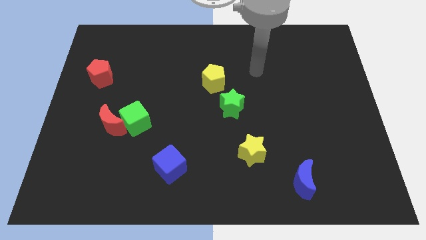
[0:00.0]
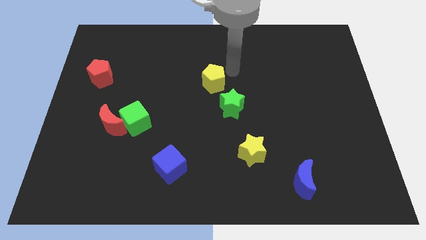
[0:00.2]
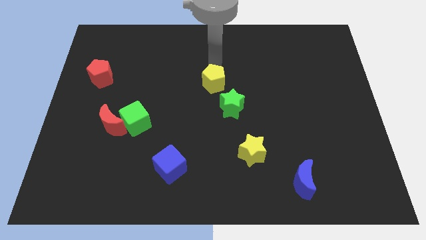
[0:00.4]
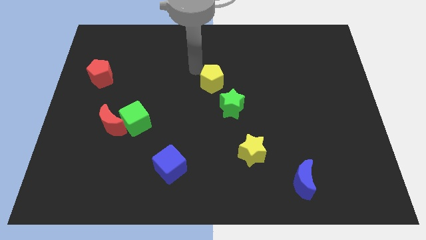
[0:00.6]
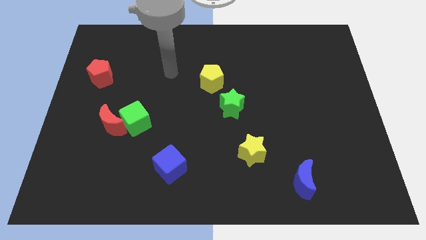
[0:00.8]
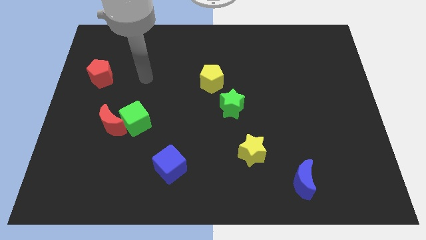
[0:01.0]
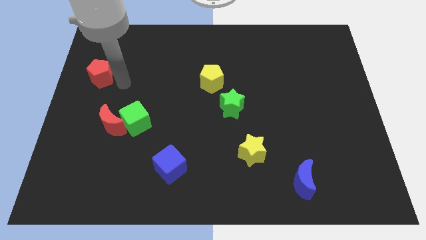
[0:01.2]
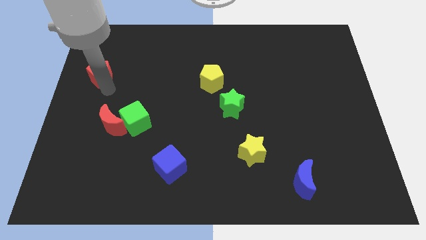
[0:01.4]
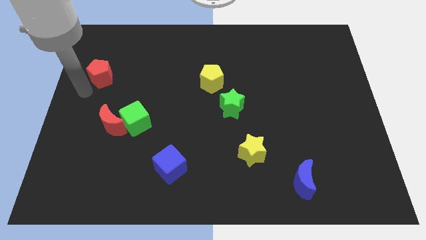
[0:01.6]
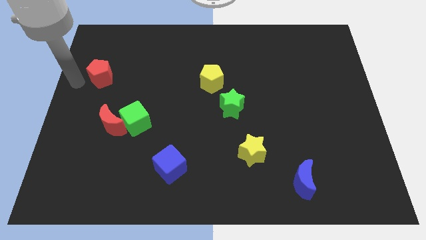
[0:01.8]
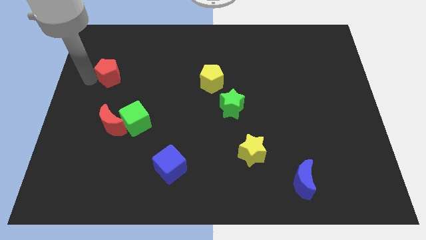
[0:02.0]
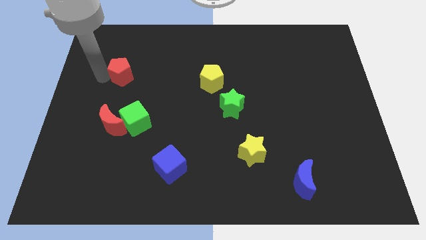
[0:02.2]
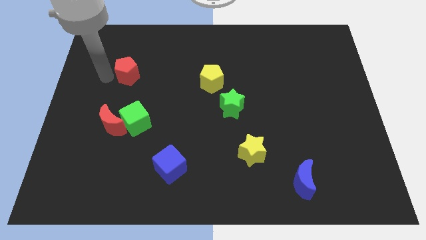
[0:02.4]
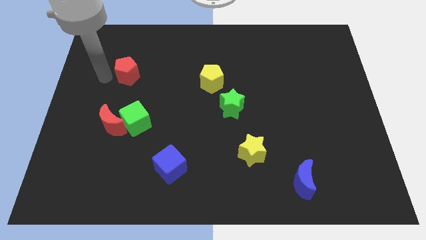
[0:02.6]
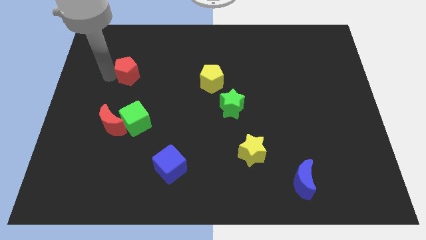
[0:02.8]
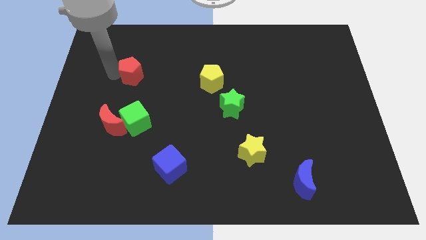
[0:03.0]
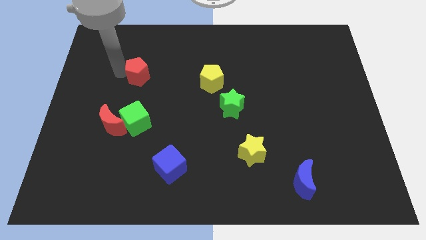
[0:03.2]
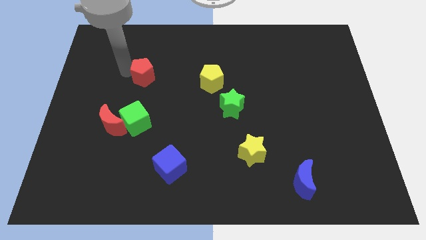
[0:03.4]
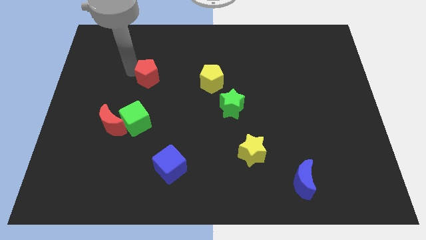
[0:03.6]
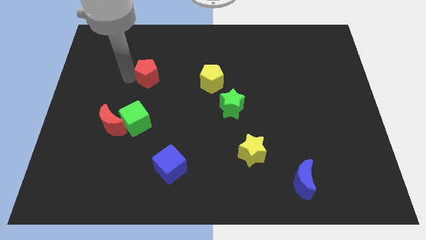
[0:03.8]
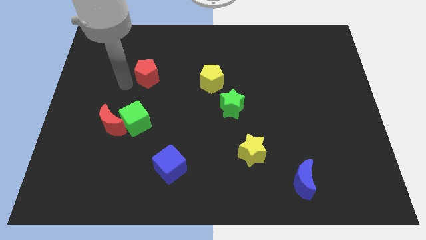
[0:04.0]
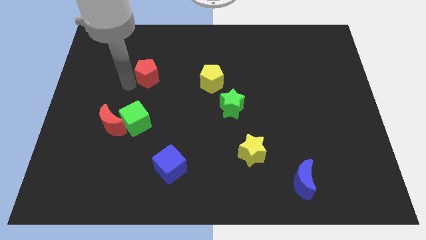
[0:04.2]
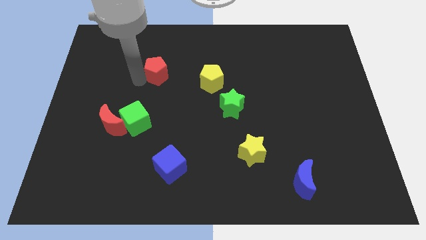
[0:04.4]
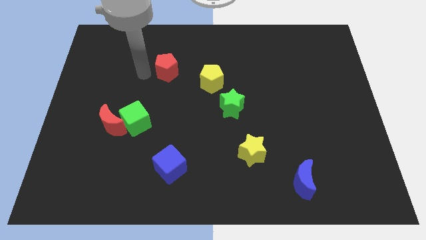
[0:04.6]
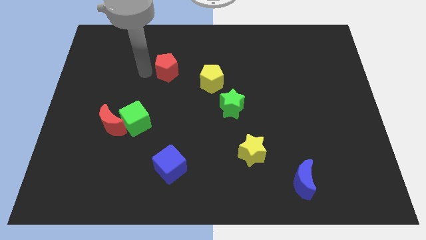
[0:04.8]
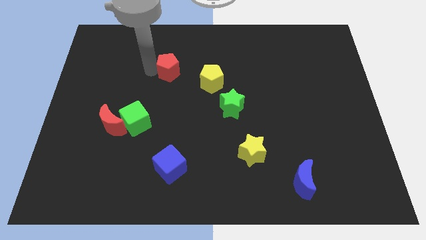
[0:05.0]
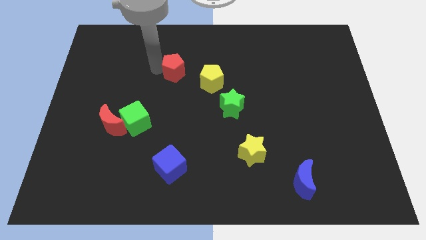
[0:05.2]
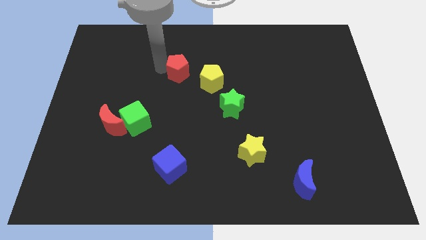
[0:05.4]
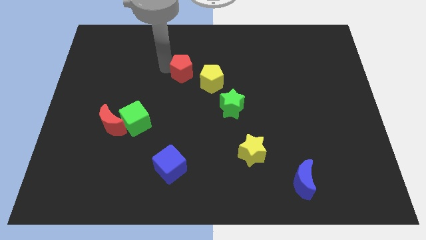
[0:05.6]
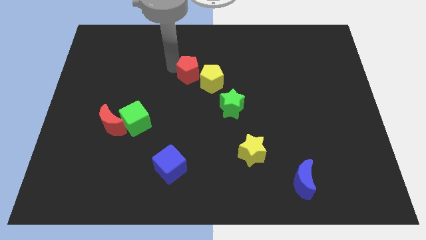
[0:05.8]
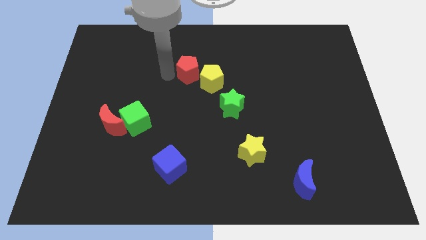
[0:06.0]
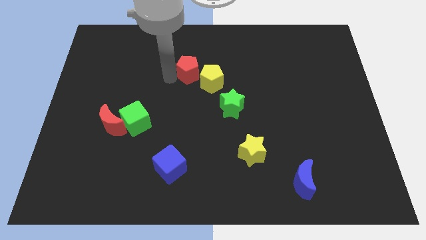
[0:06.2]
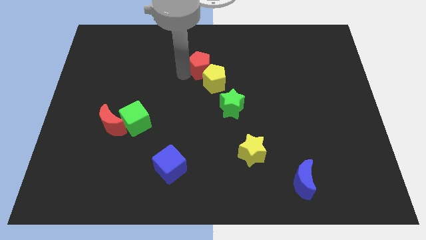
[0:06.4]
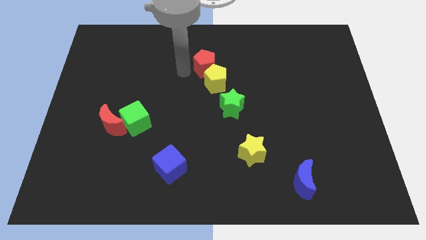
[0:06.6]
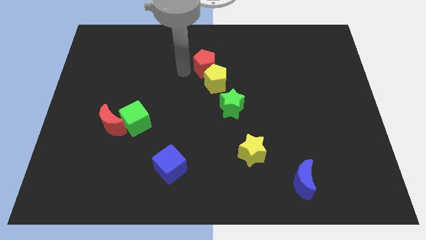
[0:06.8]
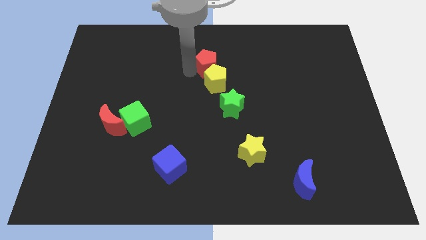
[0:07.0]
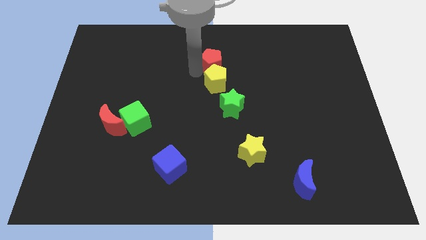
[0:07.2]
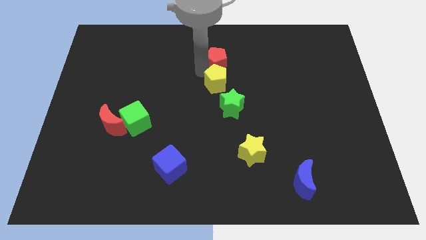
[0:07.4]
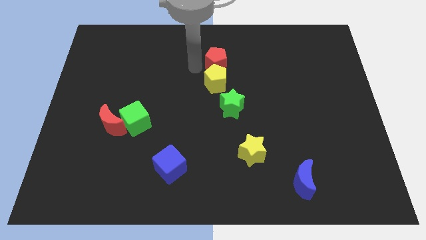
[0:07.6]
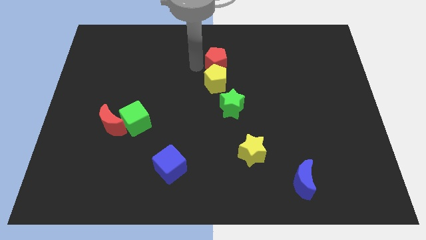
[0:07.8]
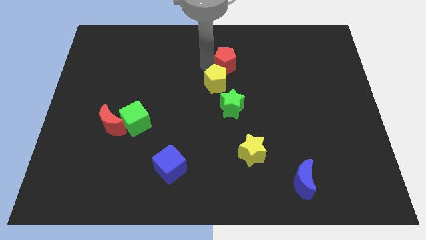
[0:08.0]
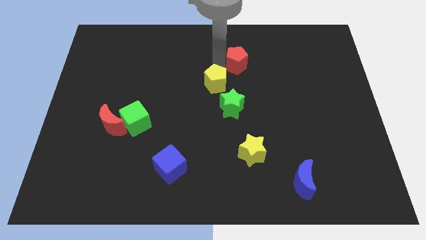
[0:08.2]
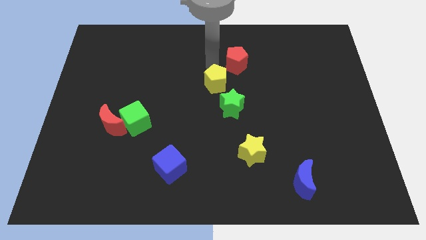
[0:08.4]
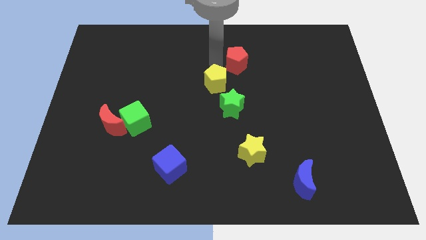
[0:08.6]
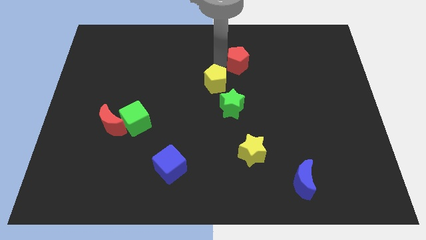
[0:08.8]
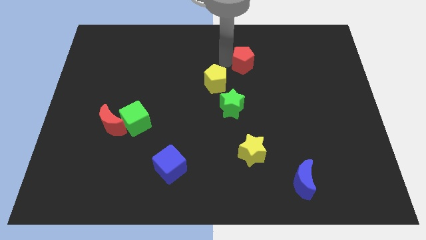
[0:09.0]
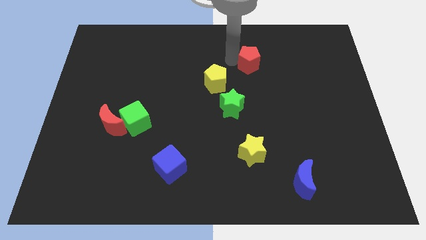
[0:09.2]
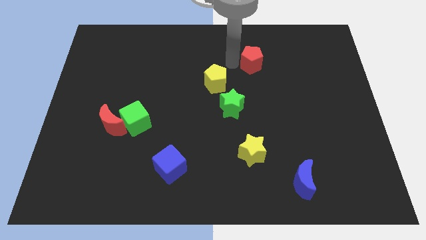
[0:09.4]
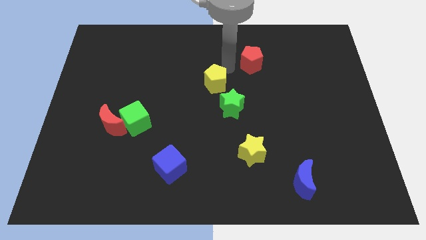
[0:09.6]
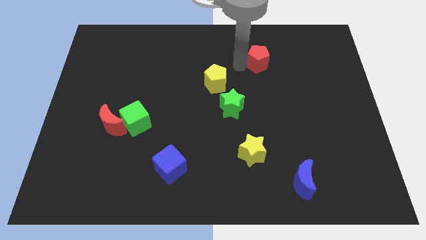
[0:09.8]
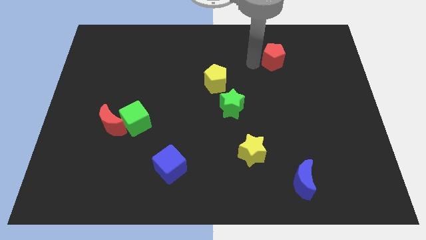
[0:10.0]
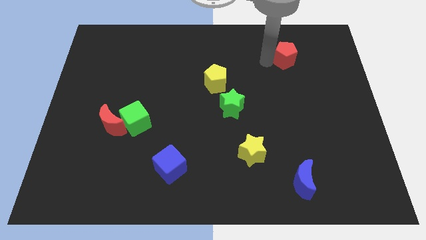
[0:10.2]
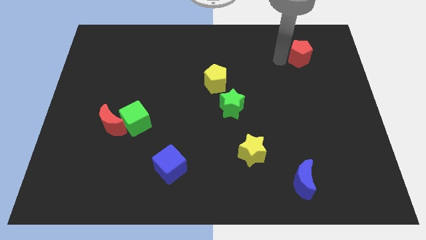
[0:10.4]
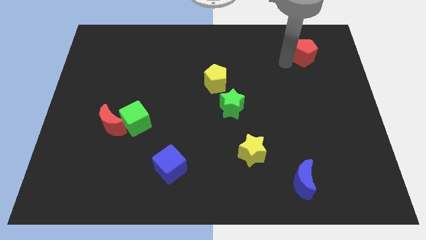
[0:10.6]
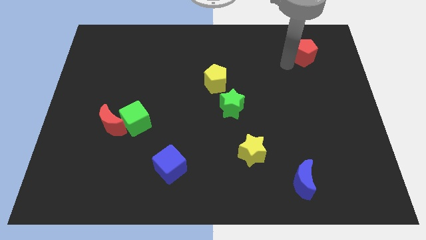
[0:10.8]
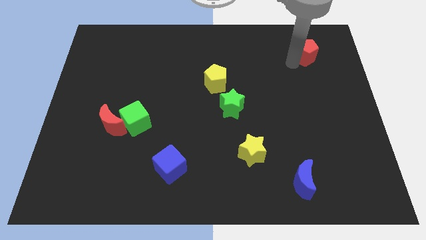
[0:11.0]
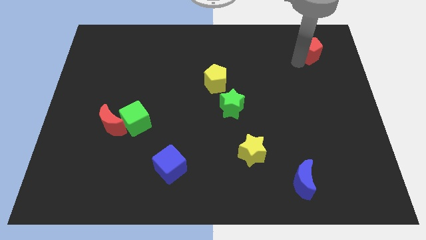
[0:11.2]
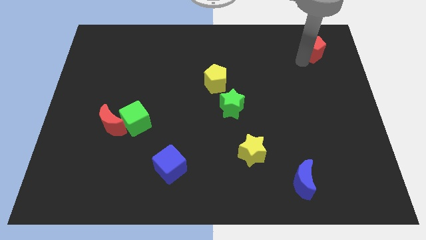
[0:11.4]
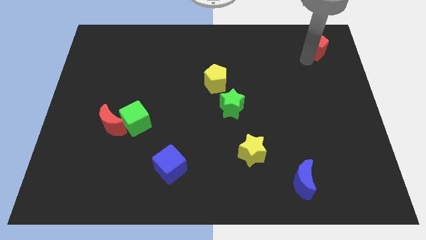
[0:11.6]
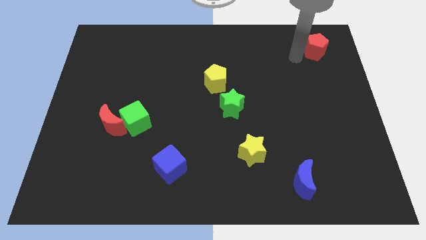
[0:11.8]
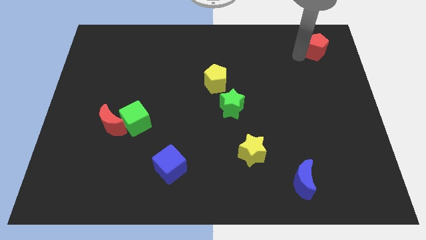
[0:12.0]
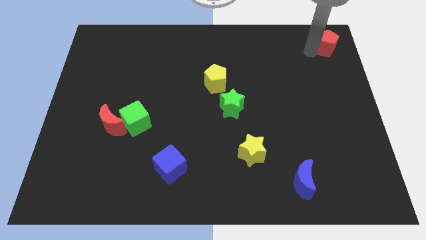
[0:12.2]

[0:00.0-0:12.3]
move the red pentagon to the top right corner
